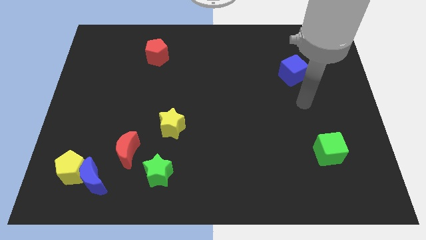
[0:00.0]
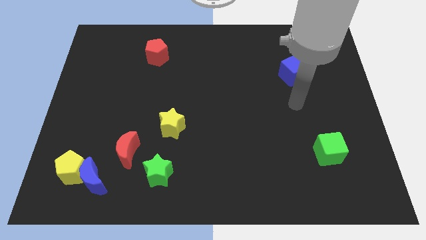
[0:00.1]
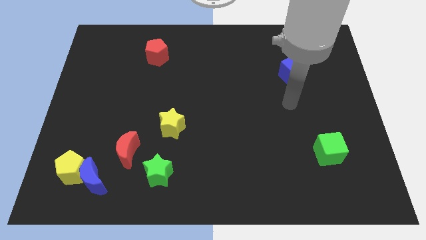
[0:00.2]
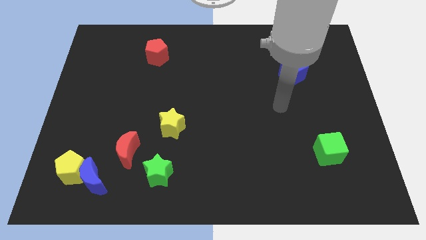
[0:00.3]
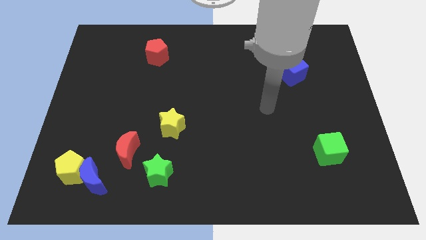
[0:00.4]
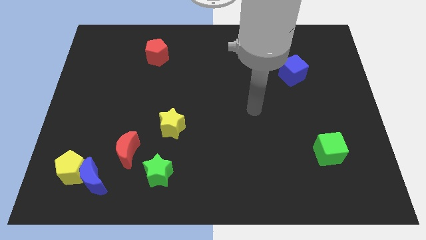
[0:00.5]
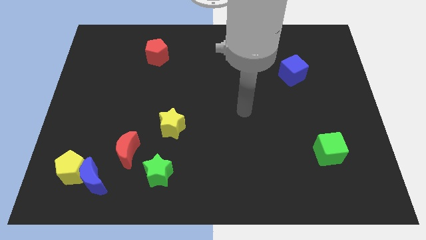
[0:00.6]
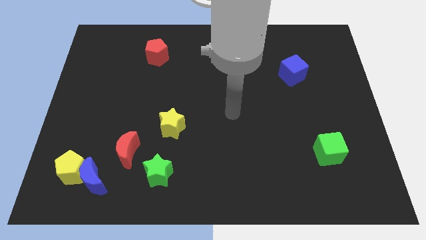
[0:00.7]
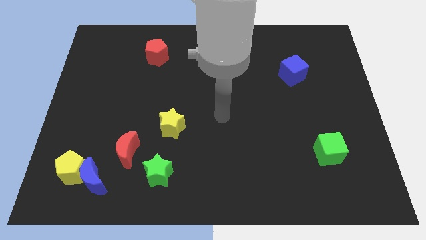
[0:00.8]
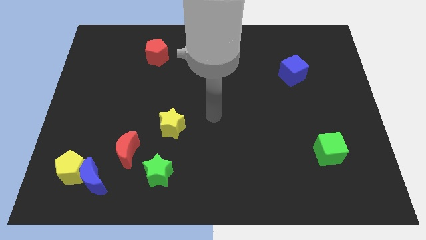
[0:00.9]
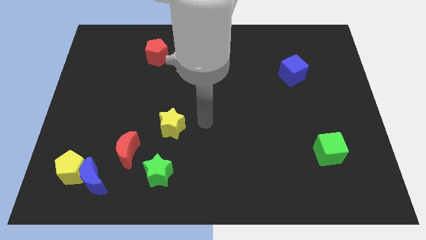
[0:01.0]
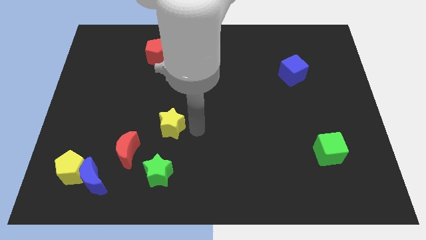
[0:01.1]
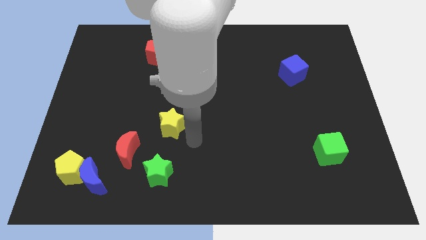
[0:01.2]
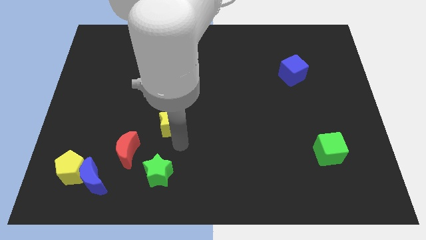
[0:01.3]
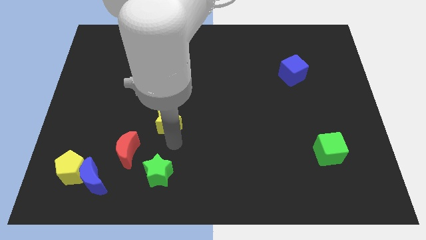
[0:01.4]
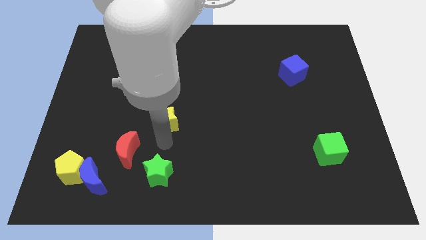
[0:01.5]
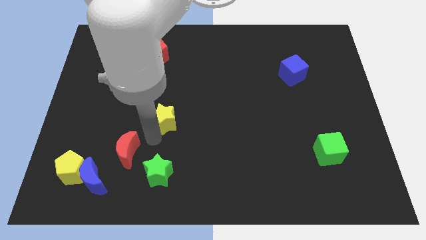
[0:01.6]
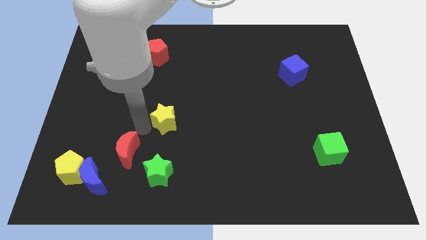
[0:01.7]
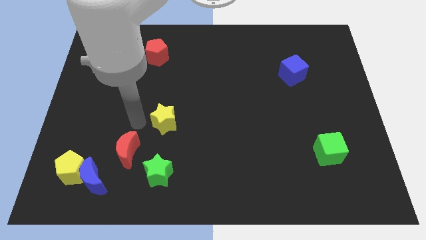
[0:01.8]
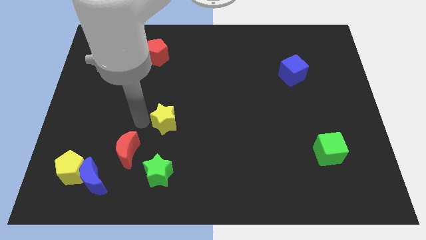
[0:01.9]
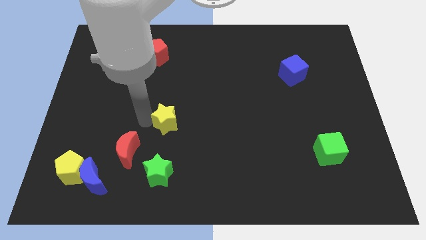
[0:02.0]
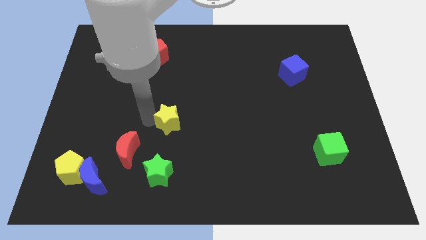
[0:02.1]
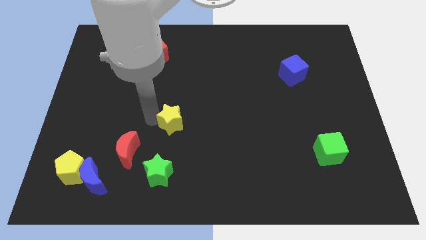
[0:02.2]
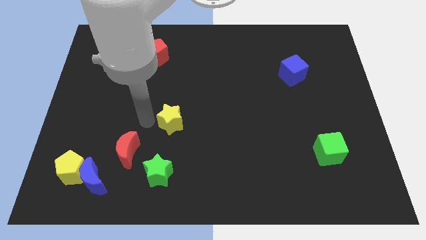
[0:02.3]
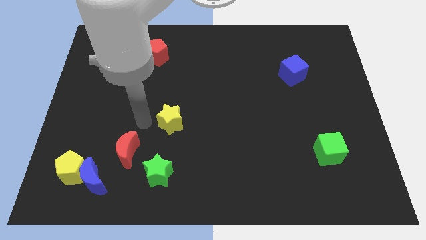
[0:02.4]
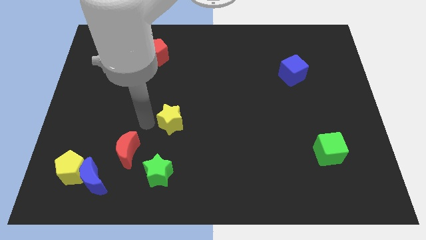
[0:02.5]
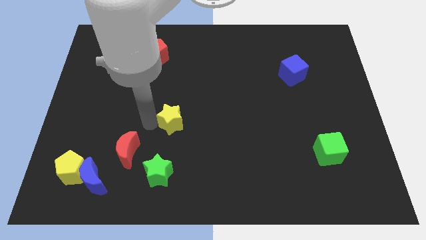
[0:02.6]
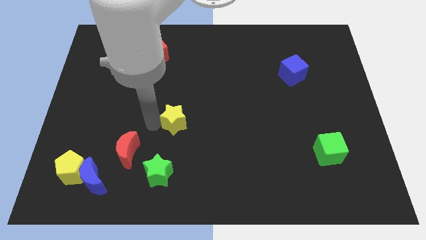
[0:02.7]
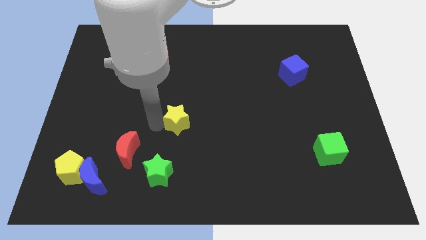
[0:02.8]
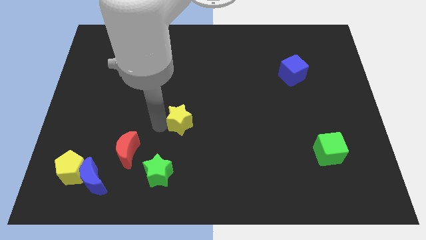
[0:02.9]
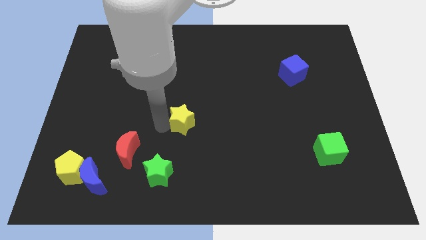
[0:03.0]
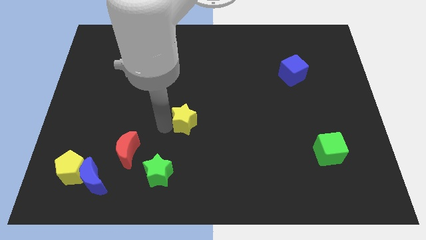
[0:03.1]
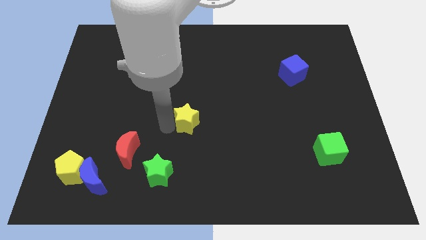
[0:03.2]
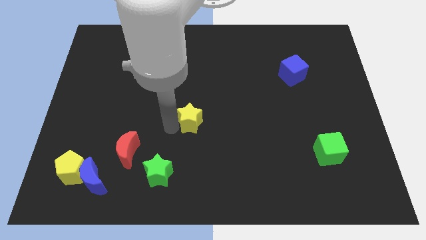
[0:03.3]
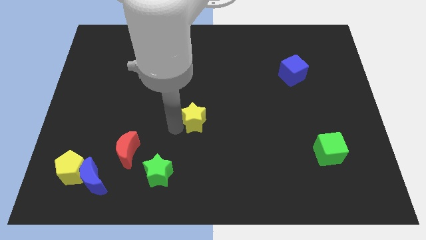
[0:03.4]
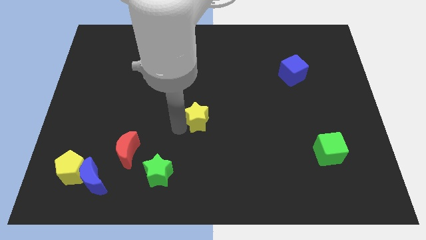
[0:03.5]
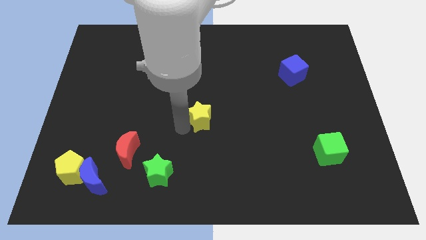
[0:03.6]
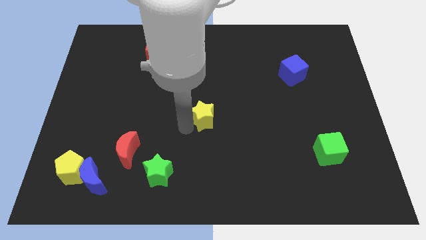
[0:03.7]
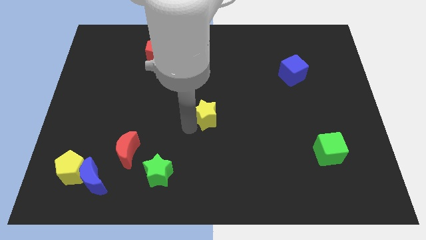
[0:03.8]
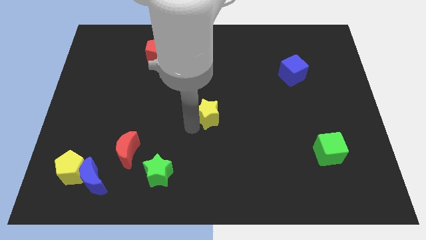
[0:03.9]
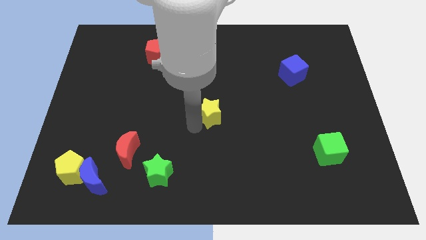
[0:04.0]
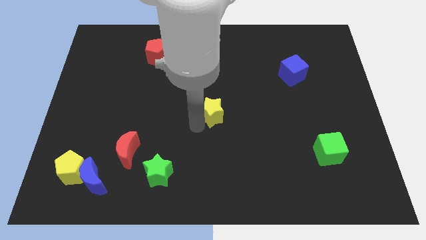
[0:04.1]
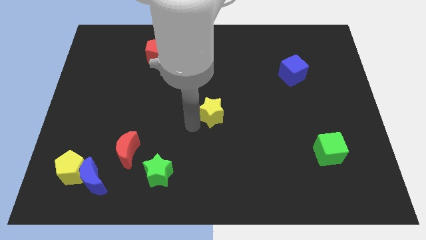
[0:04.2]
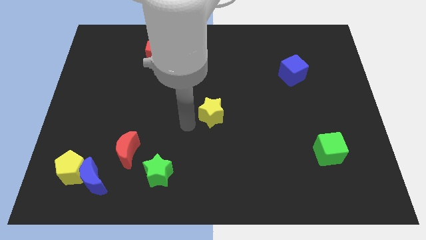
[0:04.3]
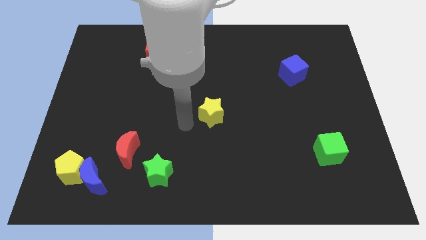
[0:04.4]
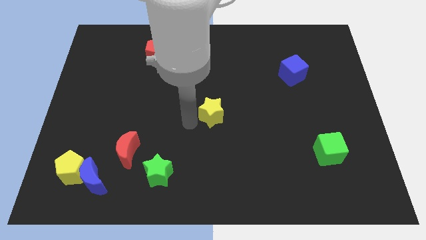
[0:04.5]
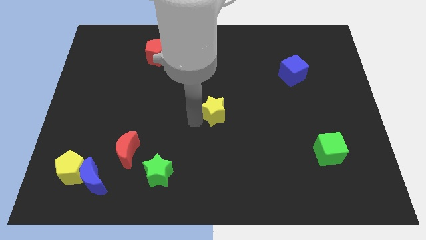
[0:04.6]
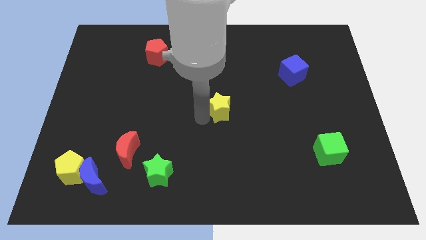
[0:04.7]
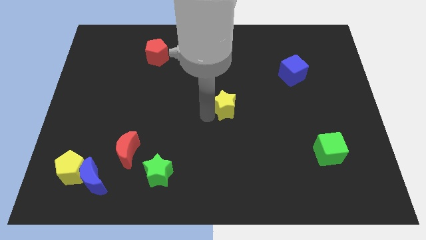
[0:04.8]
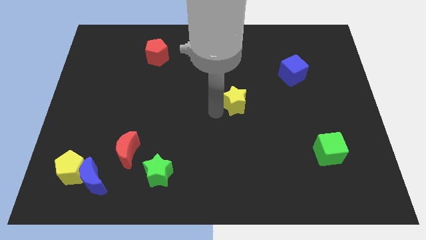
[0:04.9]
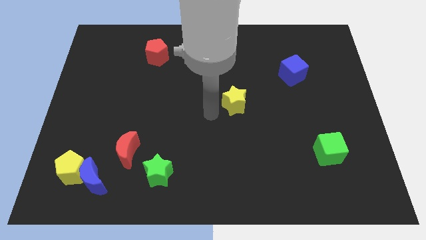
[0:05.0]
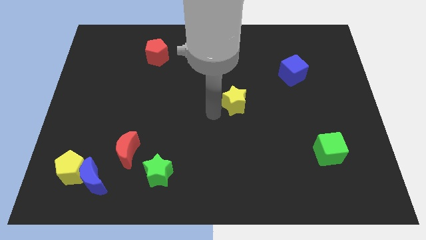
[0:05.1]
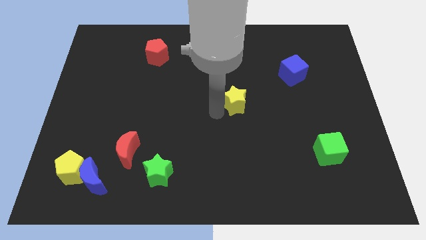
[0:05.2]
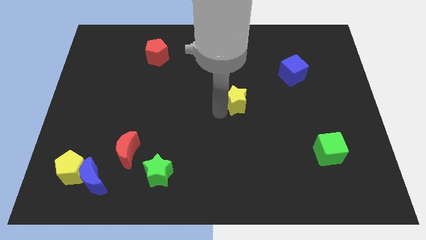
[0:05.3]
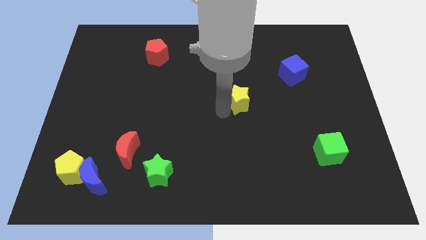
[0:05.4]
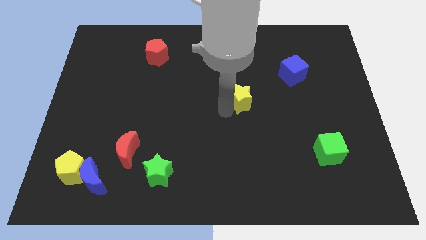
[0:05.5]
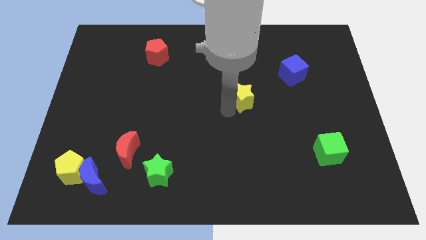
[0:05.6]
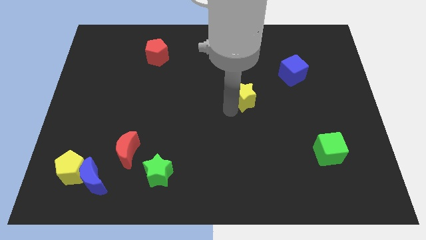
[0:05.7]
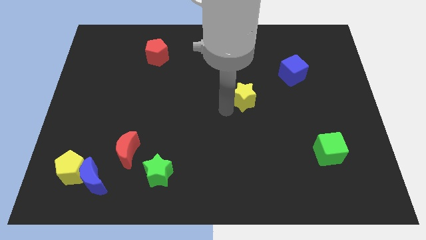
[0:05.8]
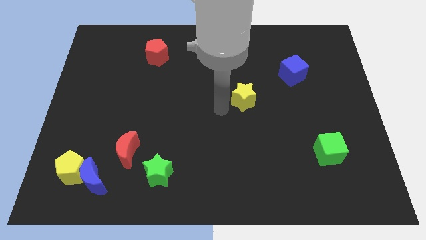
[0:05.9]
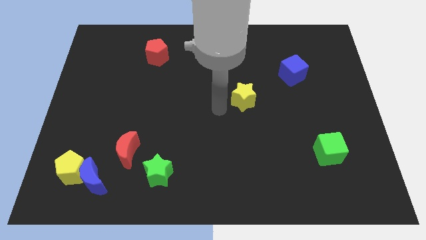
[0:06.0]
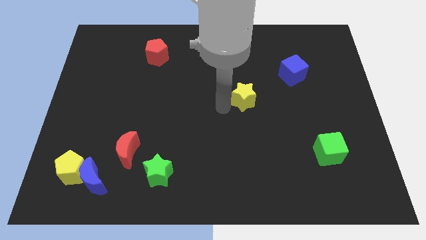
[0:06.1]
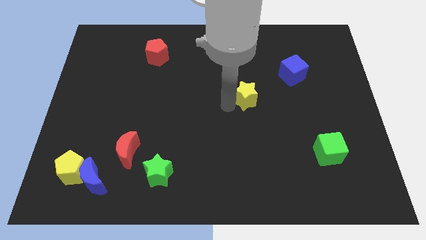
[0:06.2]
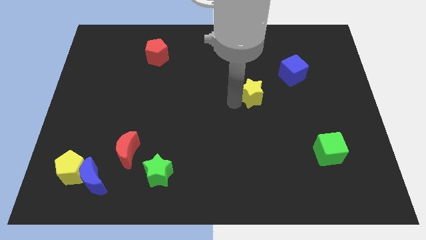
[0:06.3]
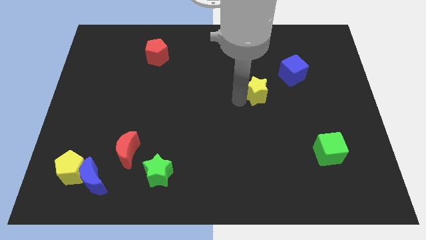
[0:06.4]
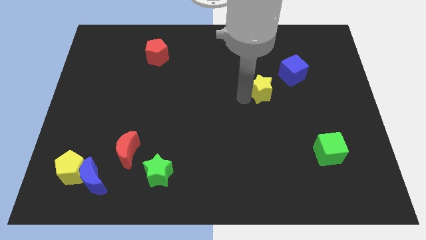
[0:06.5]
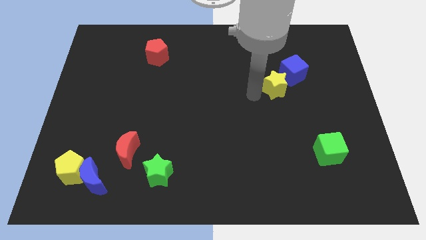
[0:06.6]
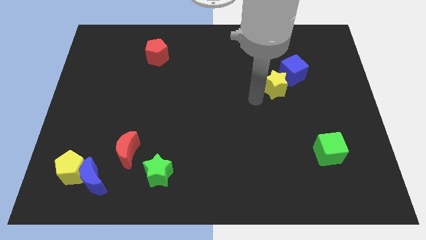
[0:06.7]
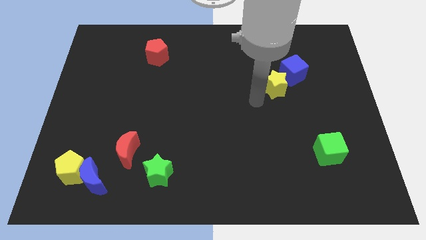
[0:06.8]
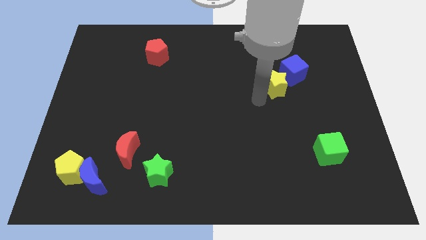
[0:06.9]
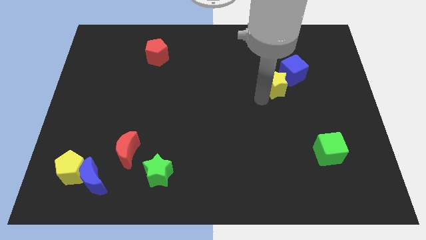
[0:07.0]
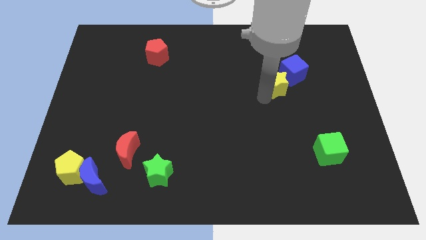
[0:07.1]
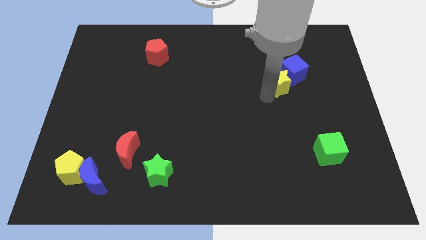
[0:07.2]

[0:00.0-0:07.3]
move the yellow star to the blue cube

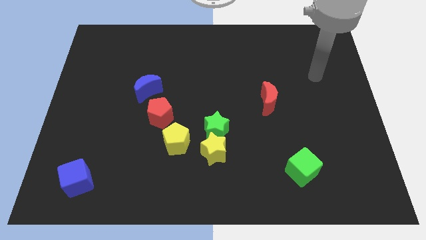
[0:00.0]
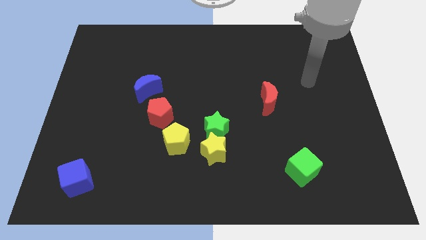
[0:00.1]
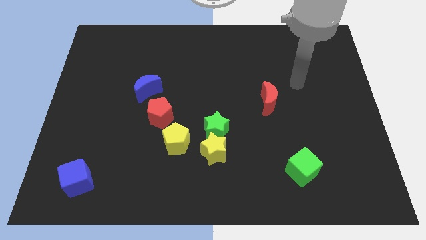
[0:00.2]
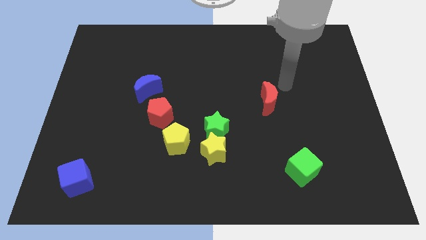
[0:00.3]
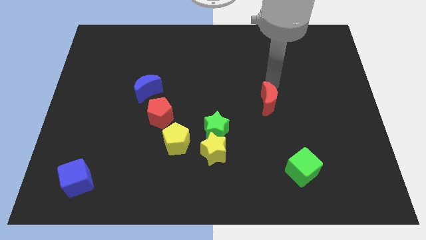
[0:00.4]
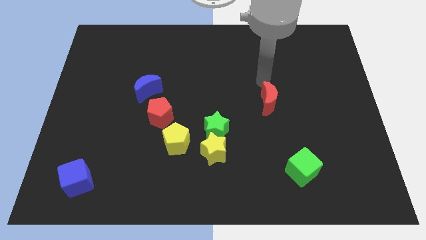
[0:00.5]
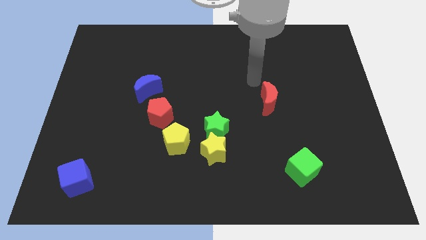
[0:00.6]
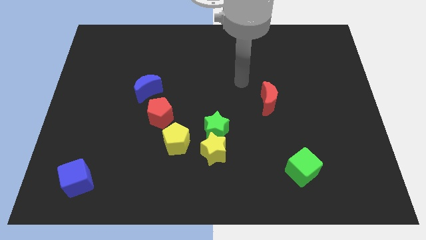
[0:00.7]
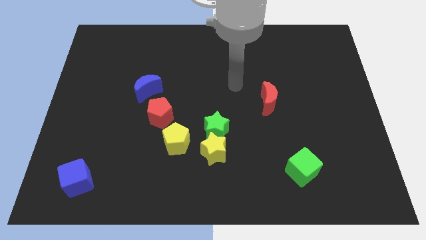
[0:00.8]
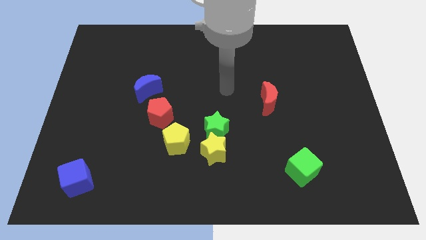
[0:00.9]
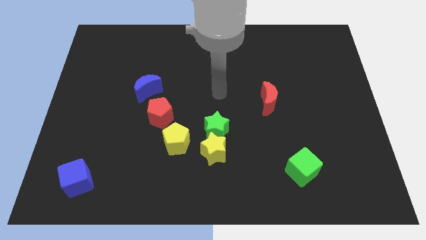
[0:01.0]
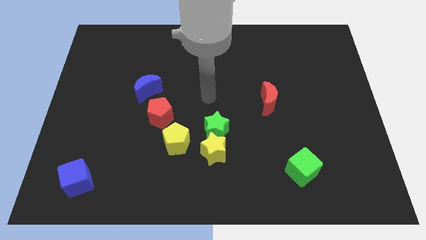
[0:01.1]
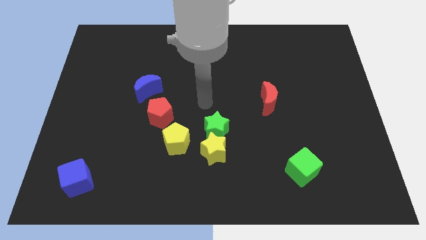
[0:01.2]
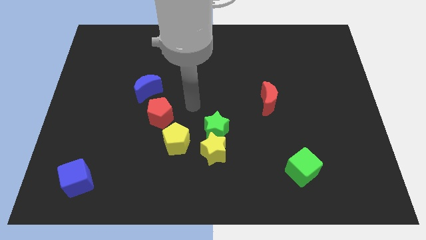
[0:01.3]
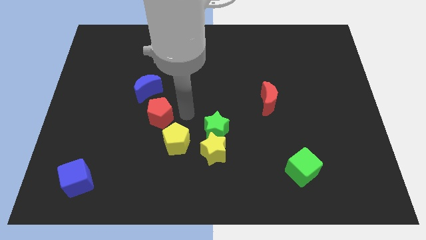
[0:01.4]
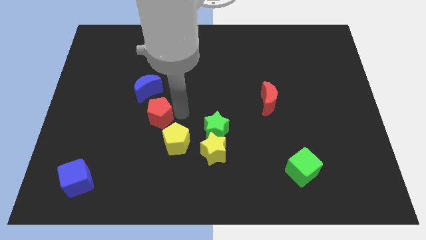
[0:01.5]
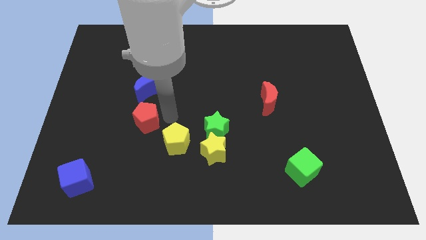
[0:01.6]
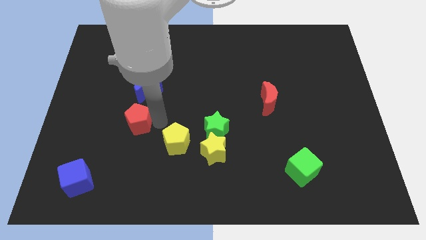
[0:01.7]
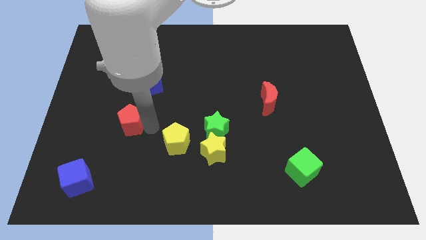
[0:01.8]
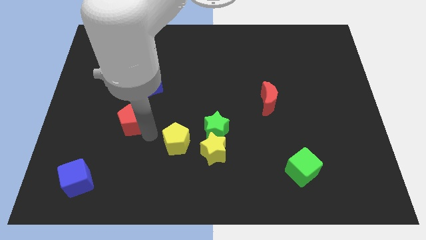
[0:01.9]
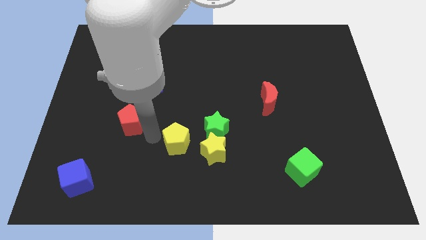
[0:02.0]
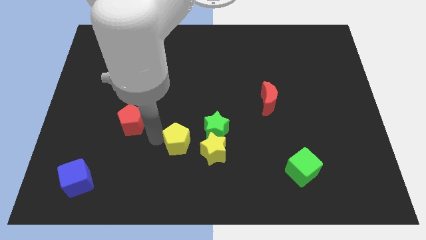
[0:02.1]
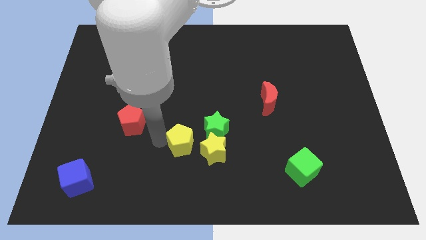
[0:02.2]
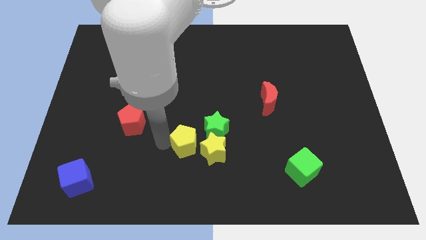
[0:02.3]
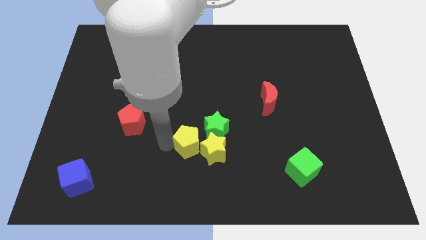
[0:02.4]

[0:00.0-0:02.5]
push the yellow pentagon towards the yellow star
